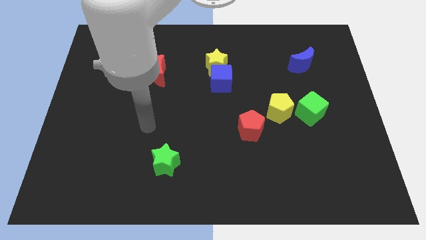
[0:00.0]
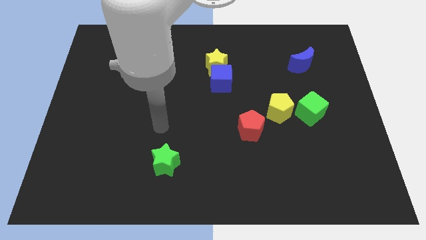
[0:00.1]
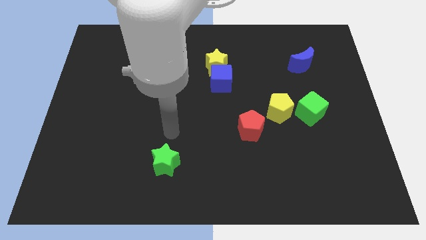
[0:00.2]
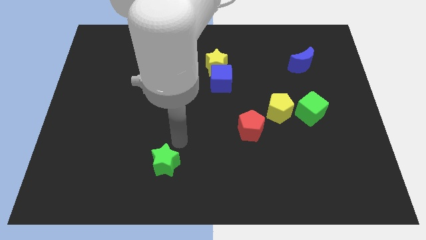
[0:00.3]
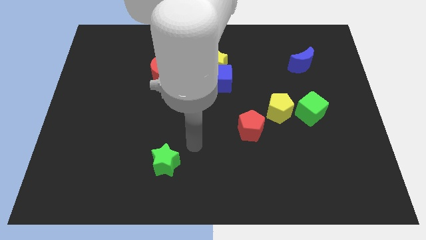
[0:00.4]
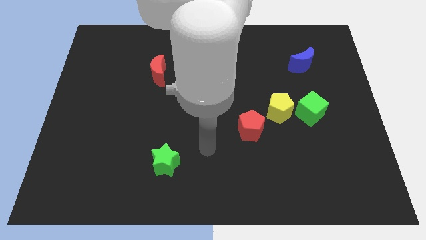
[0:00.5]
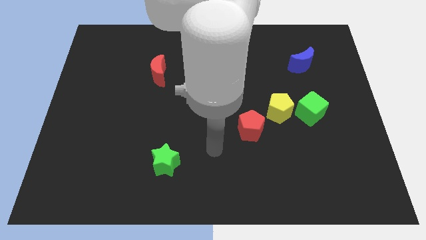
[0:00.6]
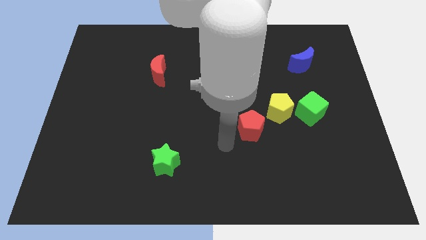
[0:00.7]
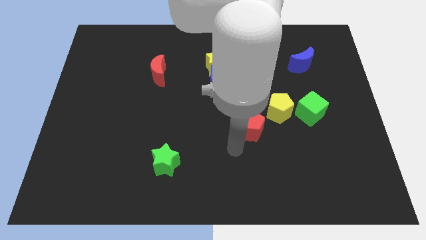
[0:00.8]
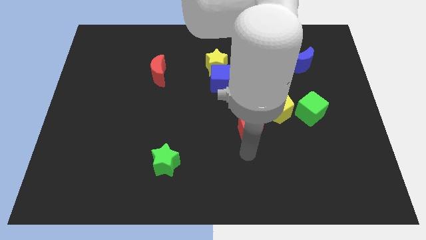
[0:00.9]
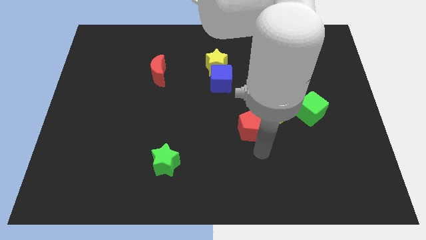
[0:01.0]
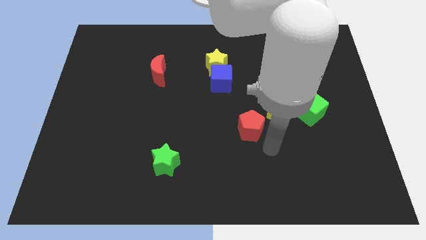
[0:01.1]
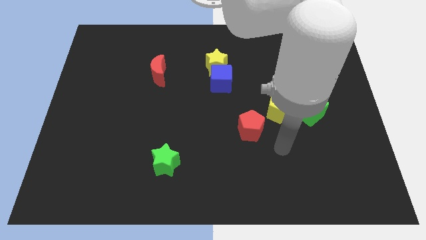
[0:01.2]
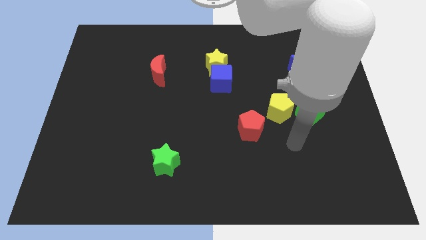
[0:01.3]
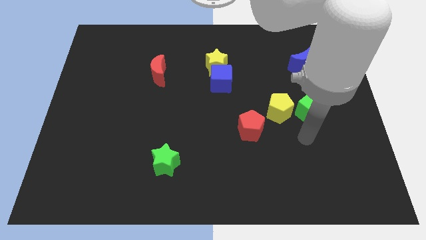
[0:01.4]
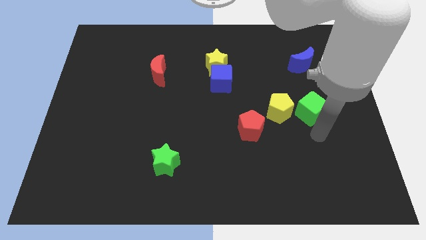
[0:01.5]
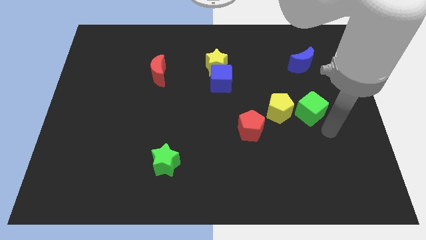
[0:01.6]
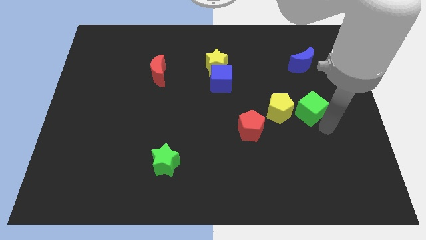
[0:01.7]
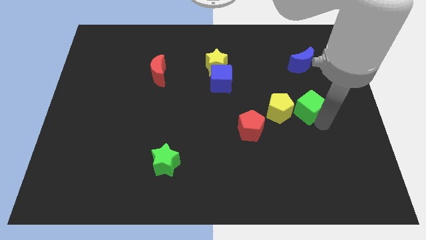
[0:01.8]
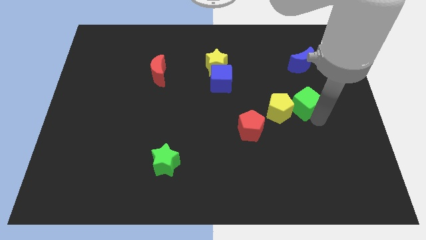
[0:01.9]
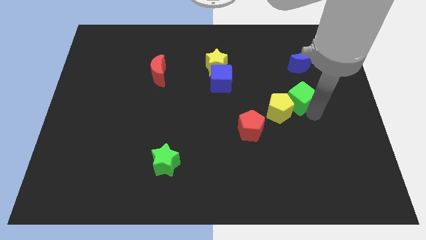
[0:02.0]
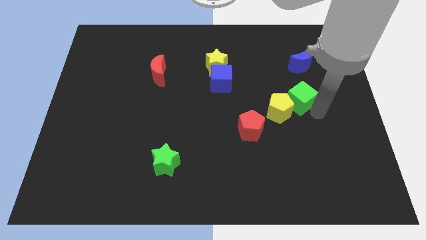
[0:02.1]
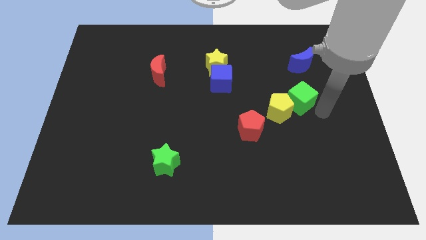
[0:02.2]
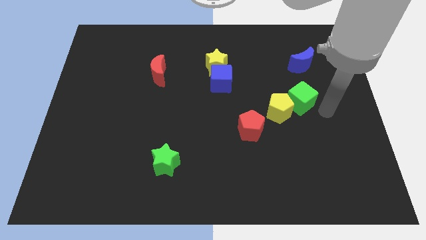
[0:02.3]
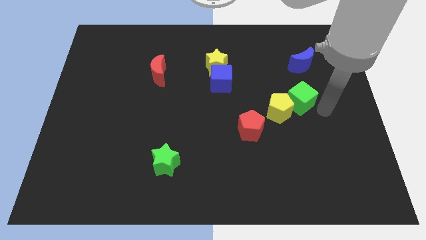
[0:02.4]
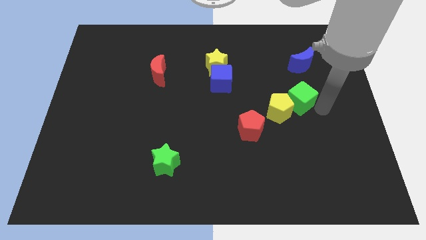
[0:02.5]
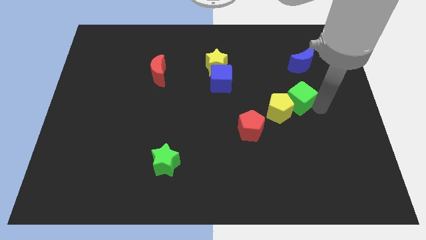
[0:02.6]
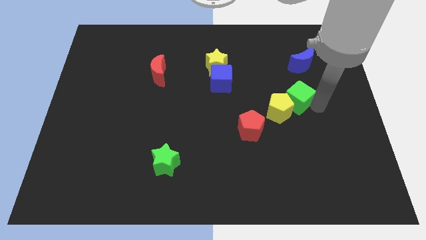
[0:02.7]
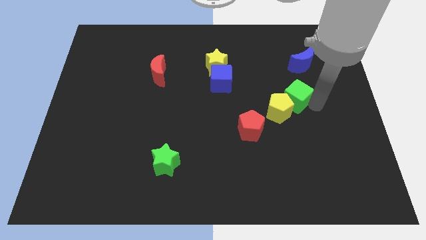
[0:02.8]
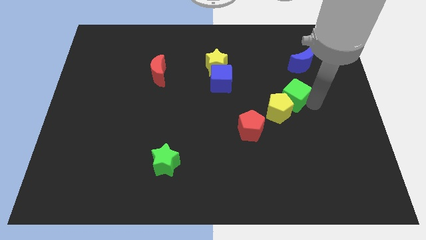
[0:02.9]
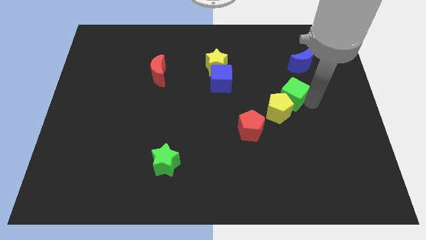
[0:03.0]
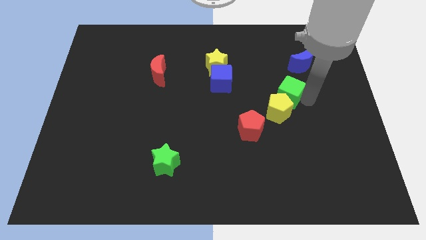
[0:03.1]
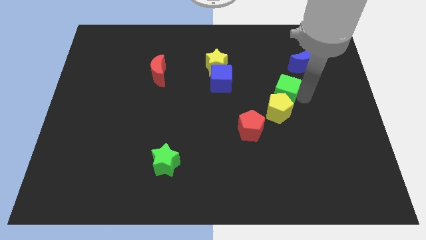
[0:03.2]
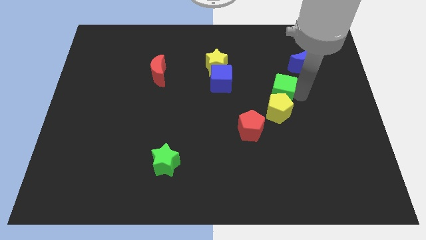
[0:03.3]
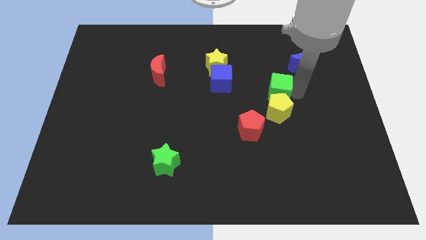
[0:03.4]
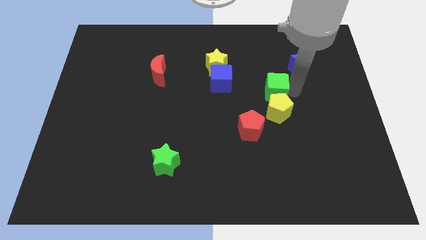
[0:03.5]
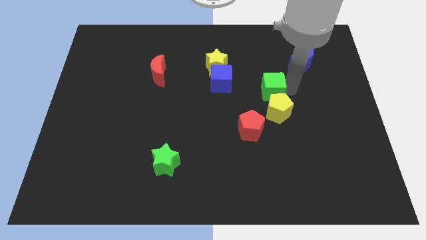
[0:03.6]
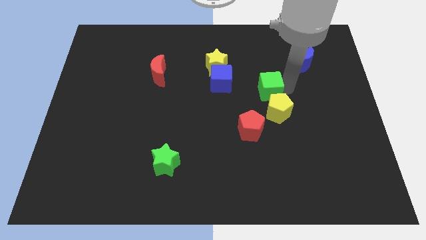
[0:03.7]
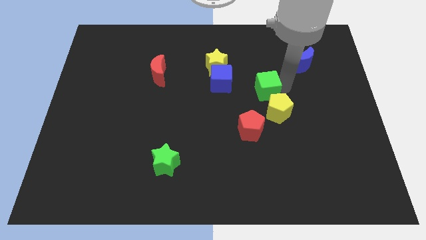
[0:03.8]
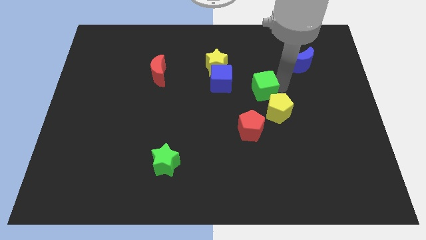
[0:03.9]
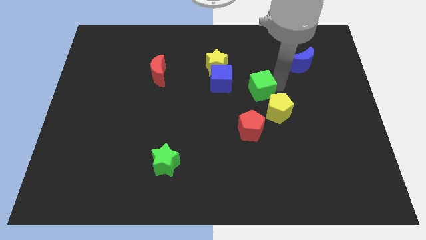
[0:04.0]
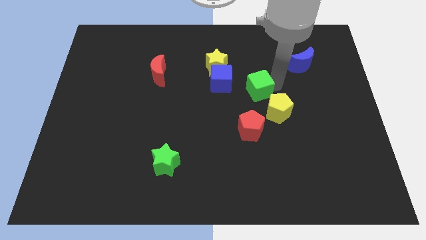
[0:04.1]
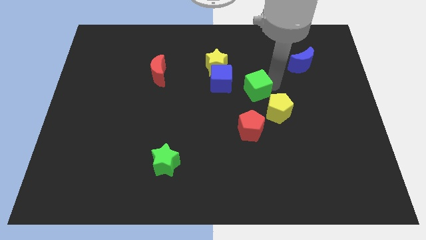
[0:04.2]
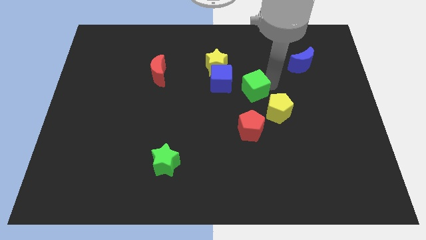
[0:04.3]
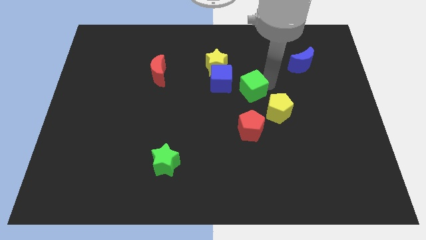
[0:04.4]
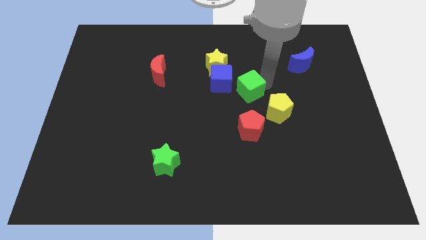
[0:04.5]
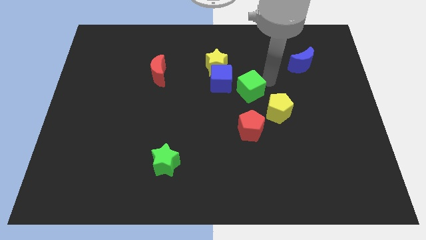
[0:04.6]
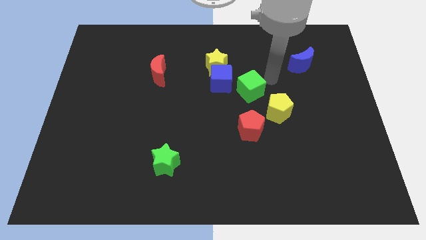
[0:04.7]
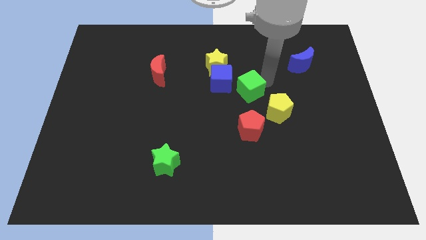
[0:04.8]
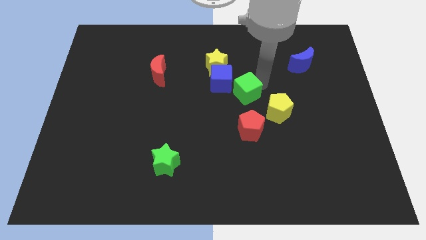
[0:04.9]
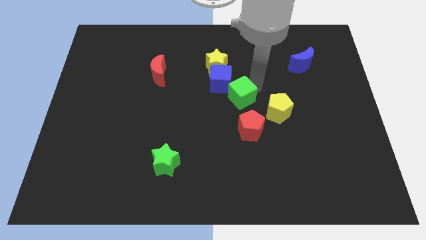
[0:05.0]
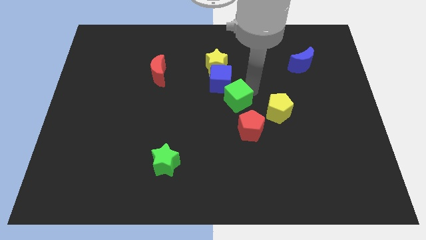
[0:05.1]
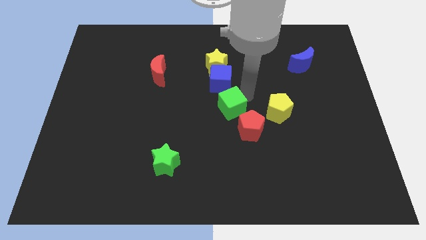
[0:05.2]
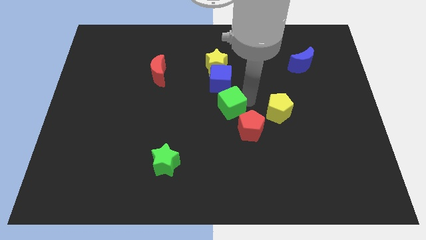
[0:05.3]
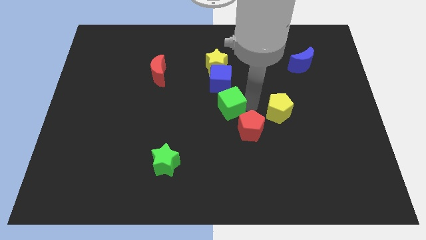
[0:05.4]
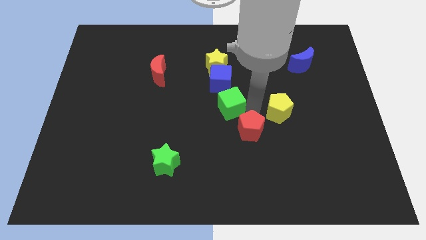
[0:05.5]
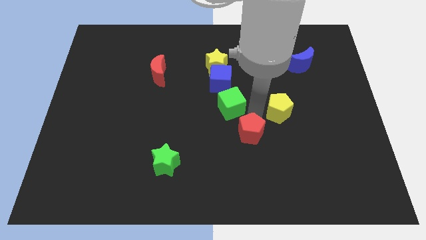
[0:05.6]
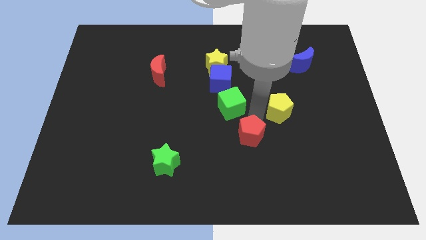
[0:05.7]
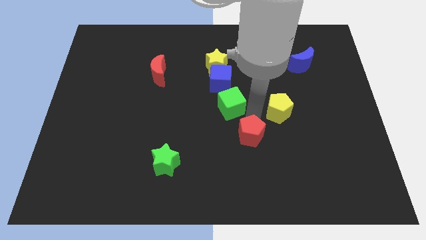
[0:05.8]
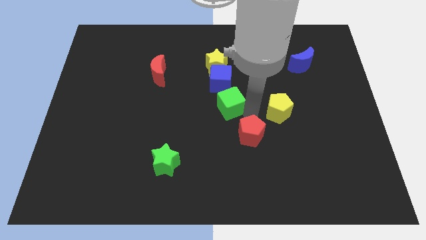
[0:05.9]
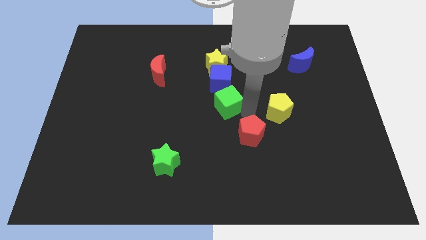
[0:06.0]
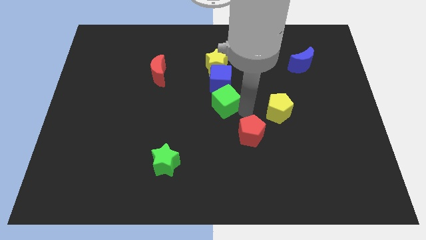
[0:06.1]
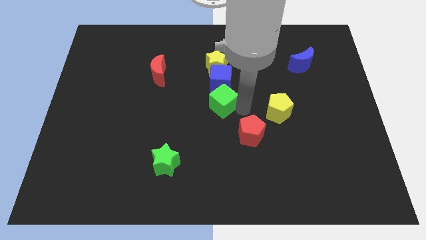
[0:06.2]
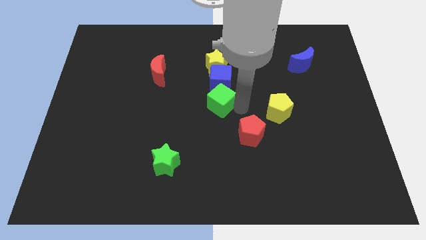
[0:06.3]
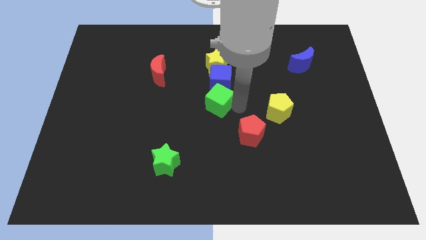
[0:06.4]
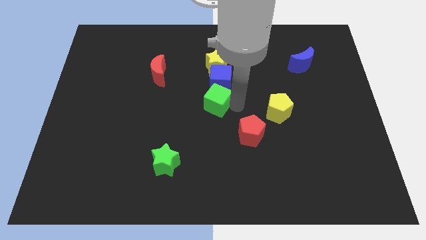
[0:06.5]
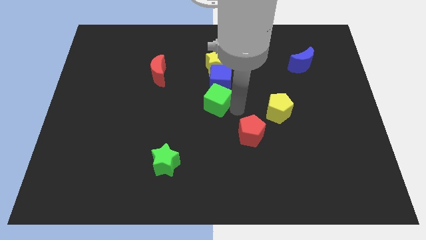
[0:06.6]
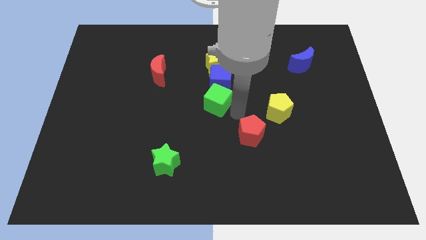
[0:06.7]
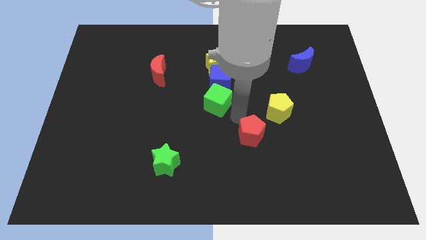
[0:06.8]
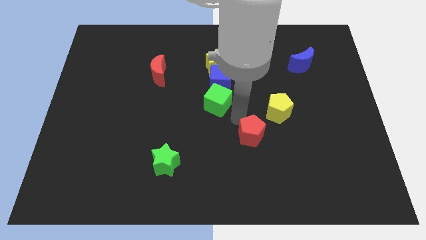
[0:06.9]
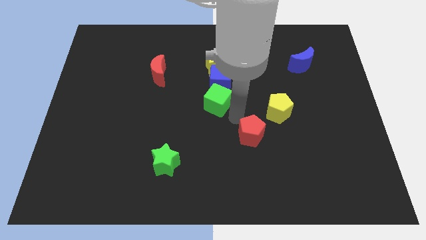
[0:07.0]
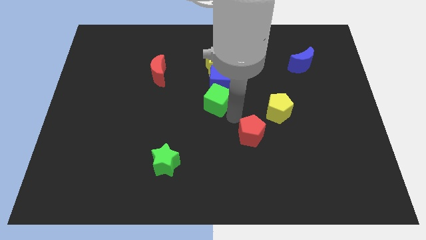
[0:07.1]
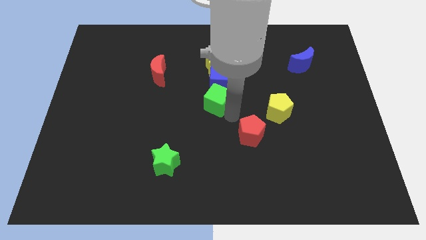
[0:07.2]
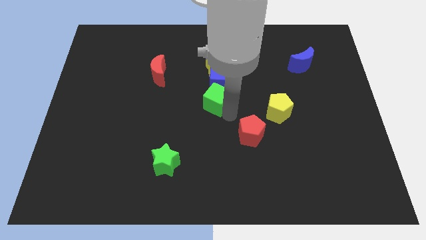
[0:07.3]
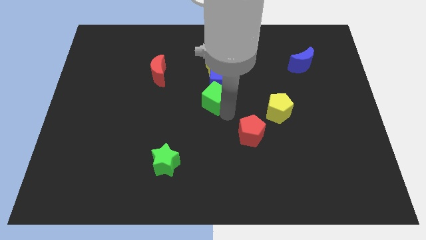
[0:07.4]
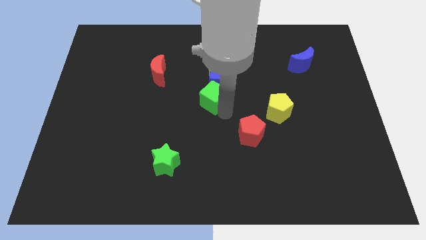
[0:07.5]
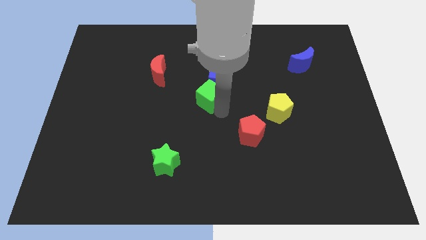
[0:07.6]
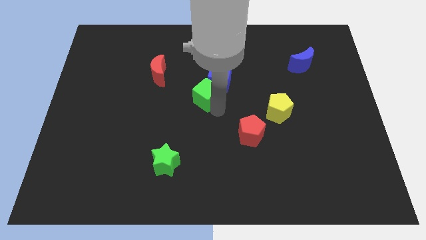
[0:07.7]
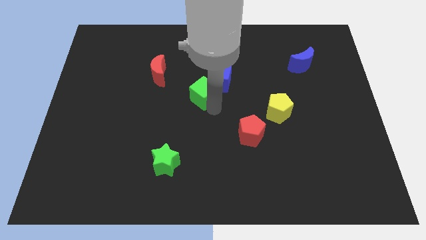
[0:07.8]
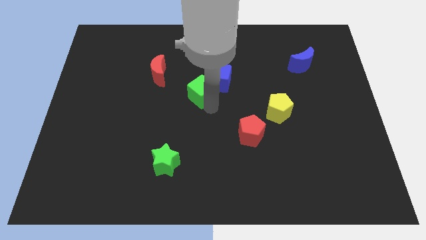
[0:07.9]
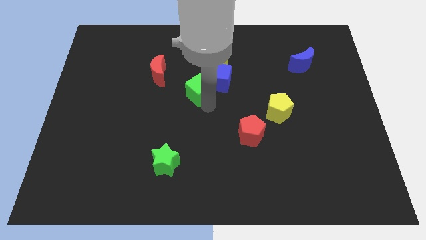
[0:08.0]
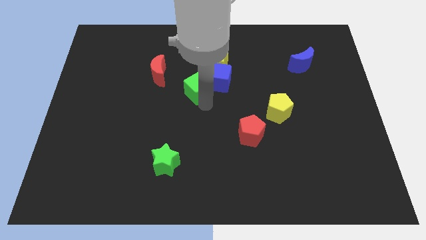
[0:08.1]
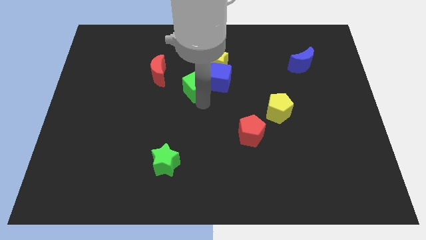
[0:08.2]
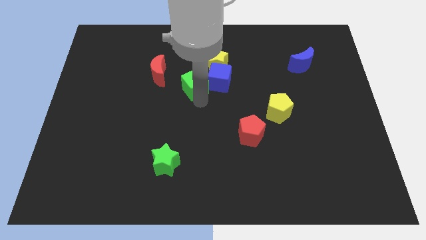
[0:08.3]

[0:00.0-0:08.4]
move the green cube just right of the red moon
